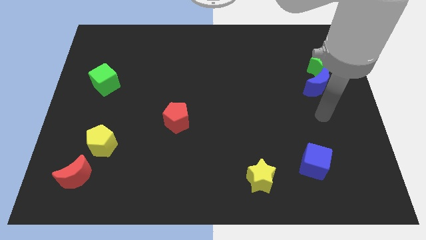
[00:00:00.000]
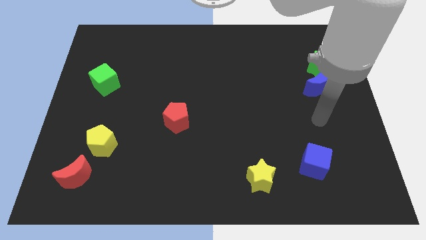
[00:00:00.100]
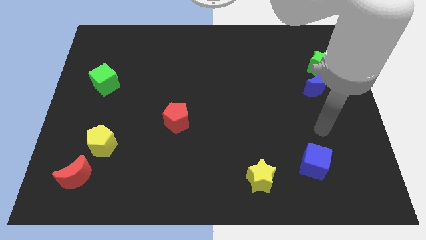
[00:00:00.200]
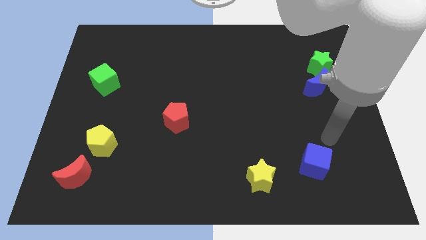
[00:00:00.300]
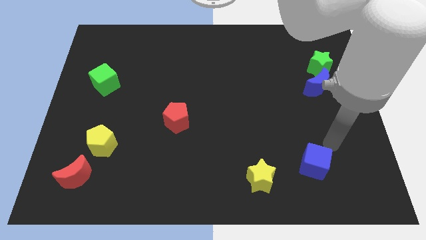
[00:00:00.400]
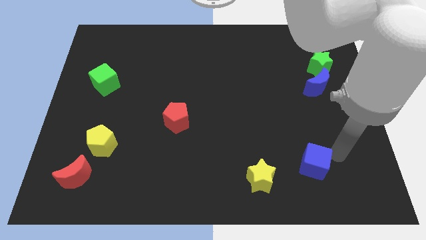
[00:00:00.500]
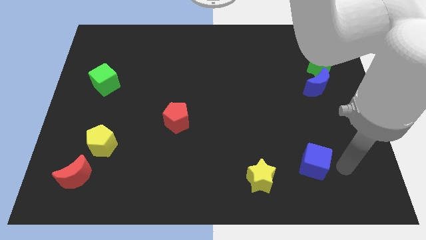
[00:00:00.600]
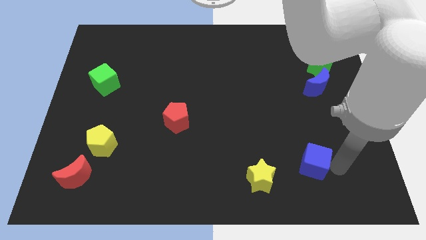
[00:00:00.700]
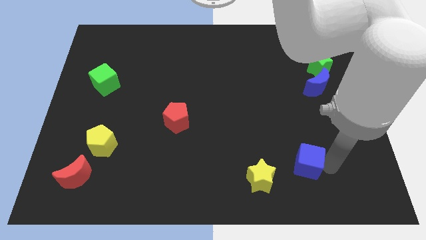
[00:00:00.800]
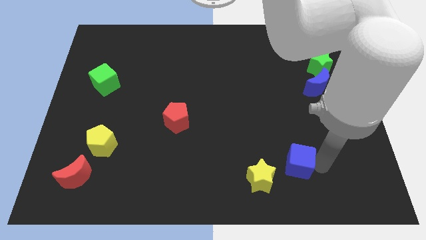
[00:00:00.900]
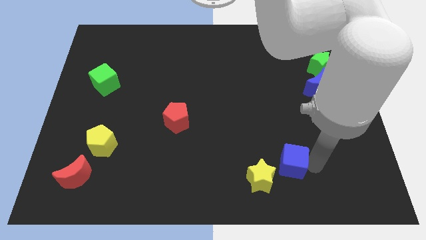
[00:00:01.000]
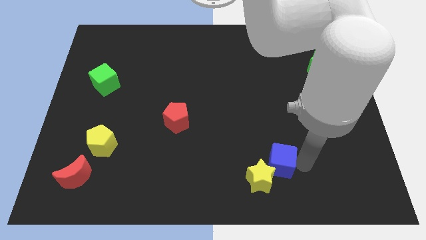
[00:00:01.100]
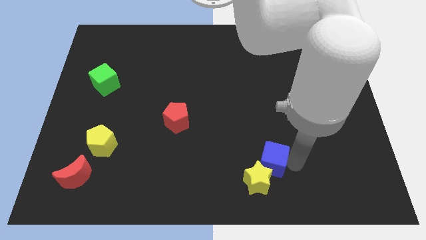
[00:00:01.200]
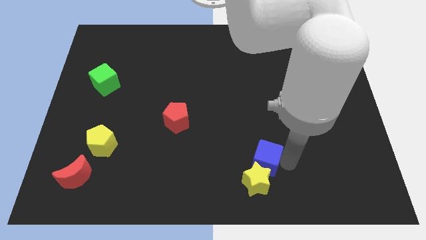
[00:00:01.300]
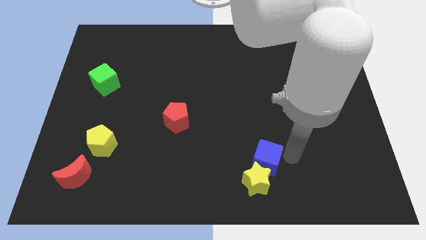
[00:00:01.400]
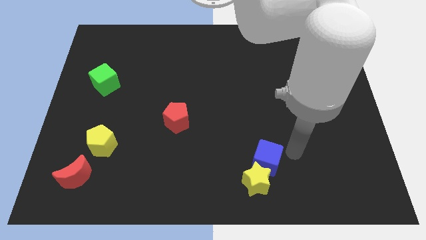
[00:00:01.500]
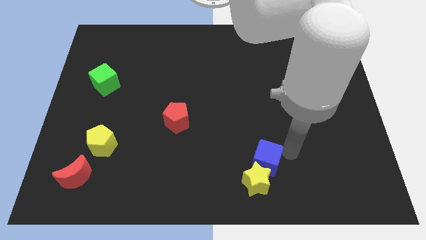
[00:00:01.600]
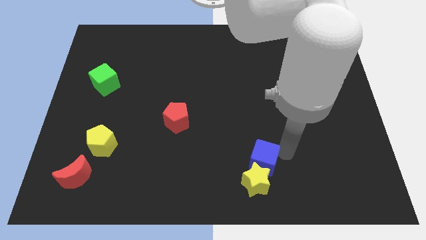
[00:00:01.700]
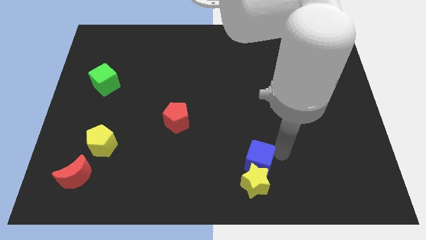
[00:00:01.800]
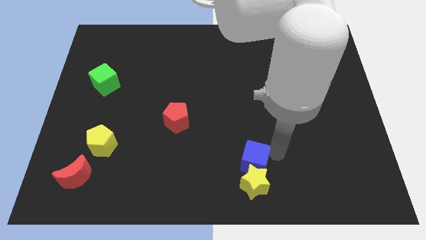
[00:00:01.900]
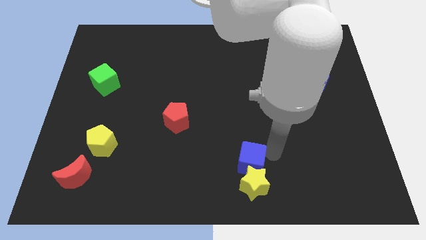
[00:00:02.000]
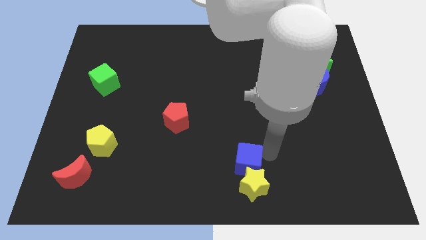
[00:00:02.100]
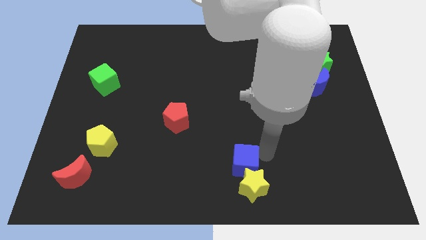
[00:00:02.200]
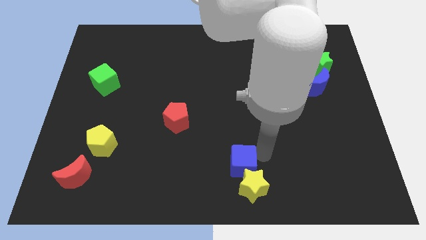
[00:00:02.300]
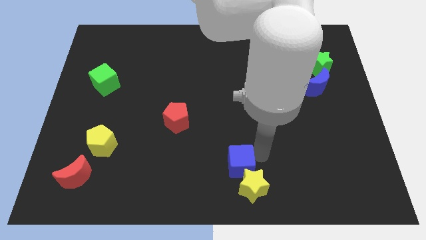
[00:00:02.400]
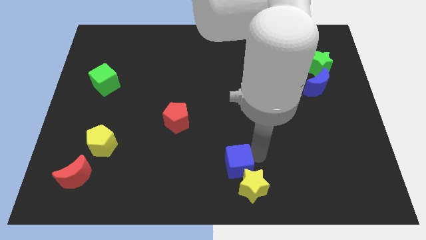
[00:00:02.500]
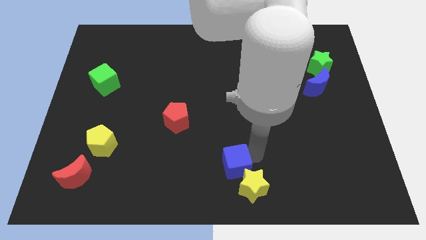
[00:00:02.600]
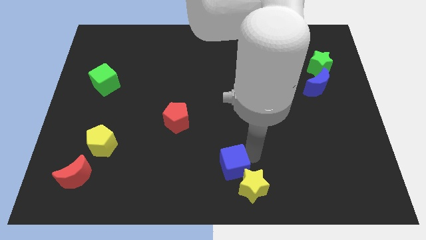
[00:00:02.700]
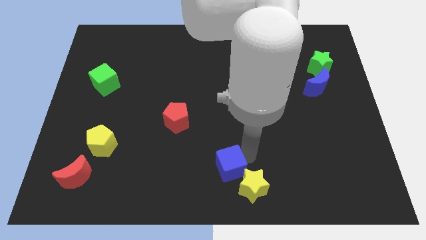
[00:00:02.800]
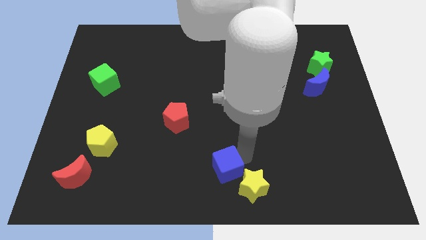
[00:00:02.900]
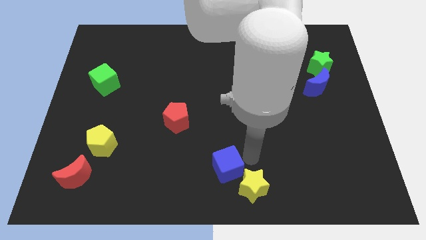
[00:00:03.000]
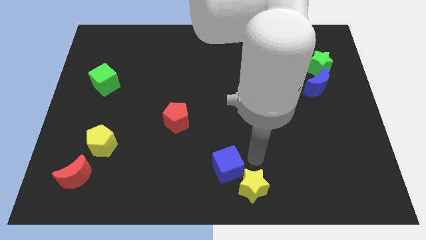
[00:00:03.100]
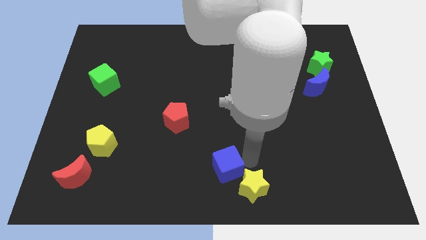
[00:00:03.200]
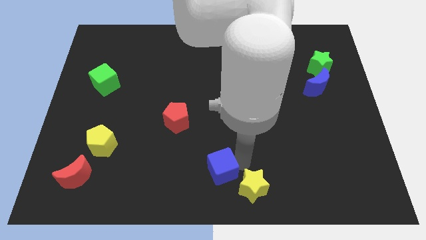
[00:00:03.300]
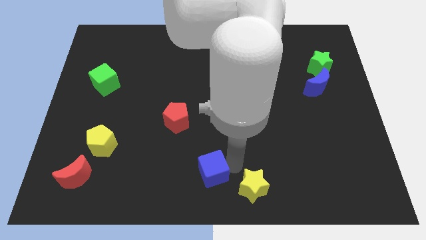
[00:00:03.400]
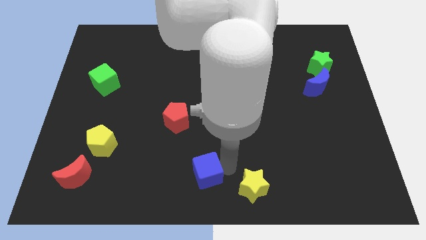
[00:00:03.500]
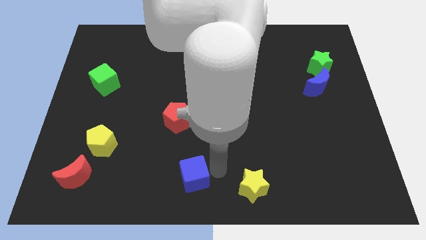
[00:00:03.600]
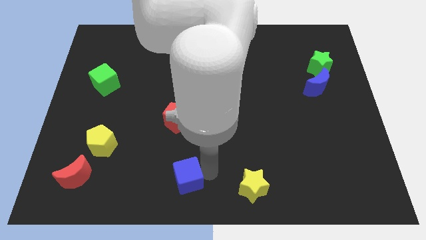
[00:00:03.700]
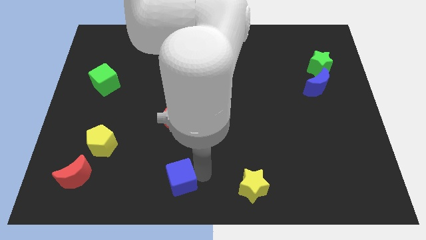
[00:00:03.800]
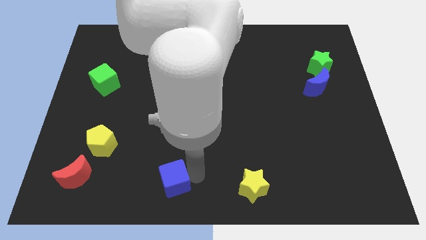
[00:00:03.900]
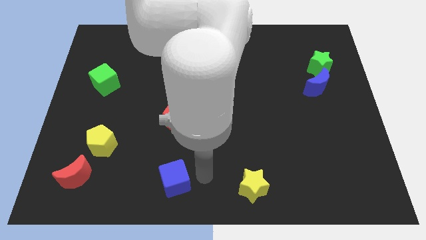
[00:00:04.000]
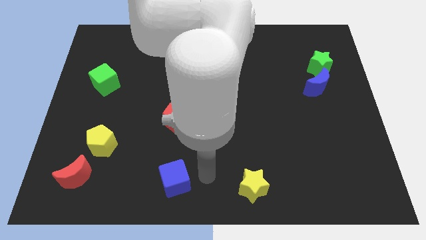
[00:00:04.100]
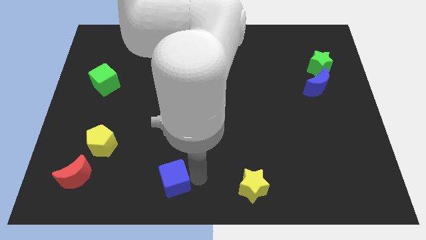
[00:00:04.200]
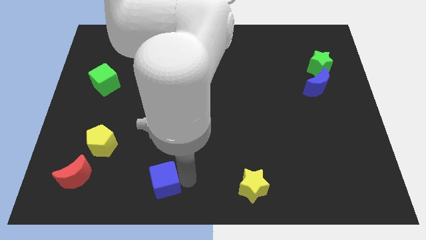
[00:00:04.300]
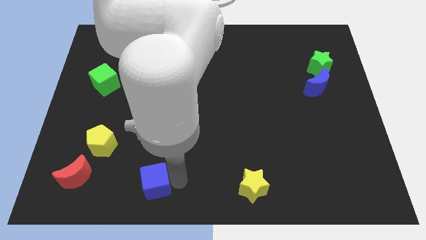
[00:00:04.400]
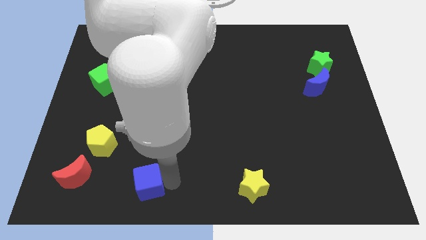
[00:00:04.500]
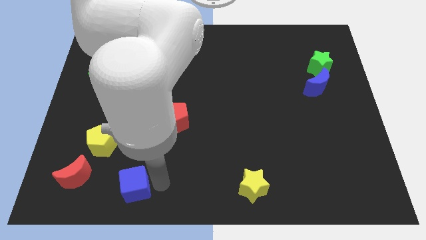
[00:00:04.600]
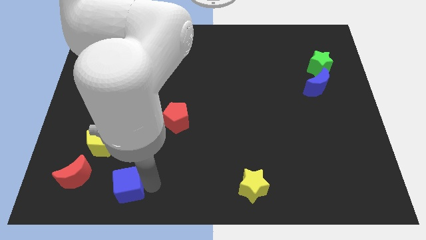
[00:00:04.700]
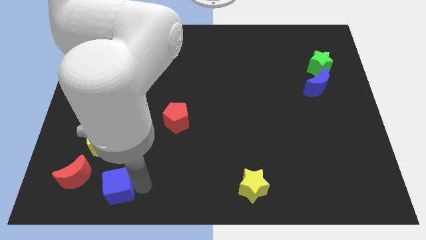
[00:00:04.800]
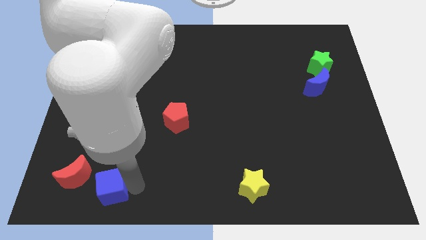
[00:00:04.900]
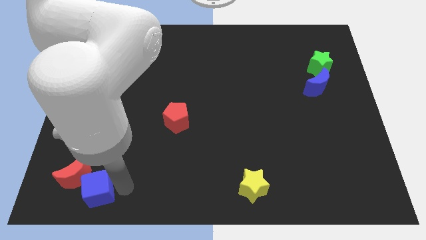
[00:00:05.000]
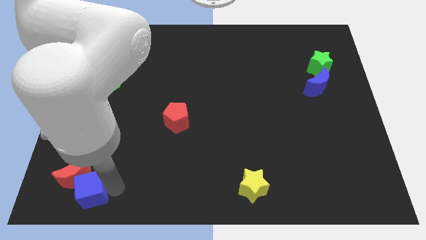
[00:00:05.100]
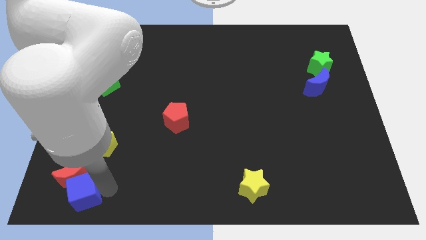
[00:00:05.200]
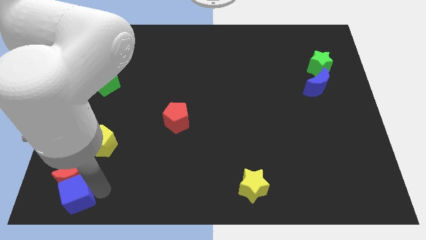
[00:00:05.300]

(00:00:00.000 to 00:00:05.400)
put the blue cube to the lower left corner

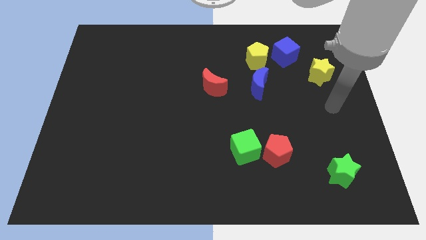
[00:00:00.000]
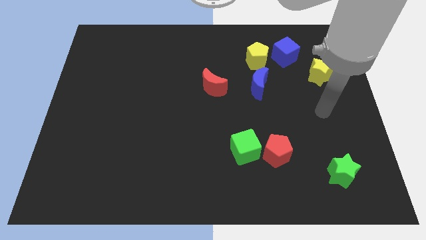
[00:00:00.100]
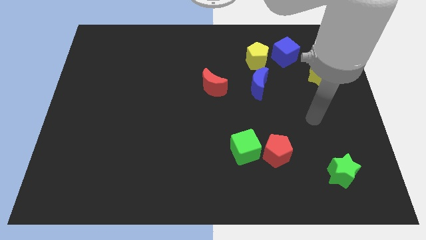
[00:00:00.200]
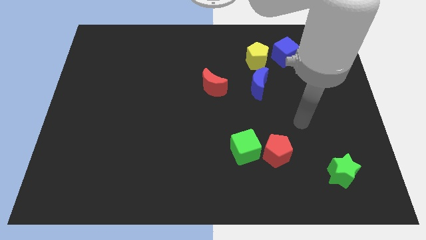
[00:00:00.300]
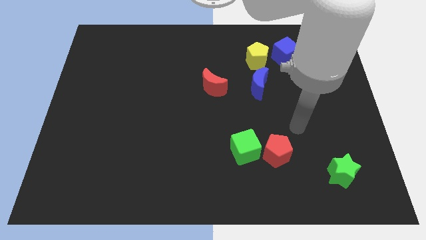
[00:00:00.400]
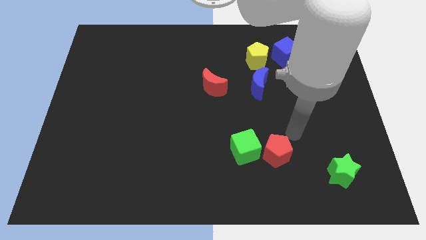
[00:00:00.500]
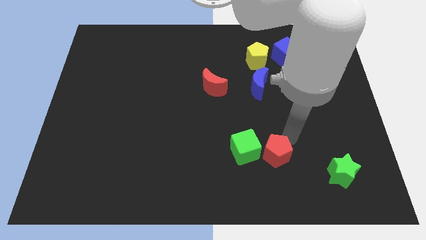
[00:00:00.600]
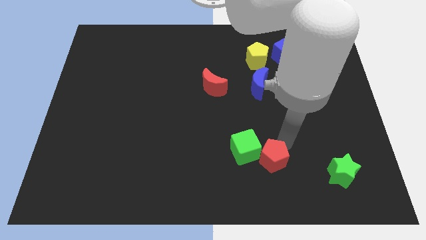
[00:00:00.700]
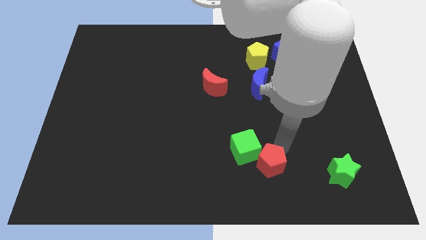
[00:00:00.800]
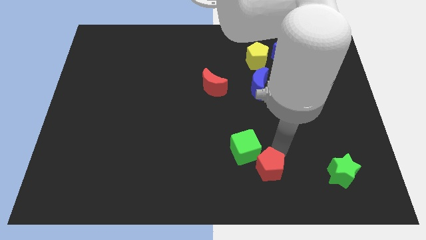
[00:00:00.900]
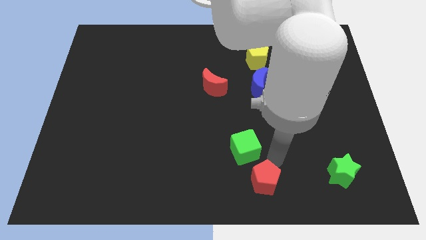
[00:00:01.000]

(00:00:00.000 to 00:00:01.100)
put the red pentagon to the bottom side
